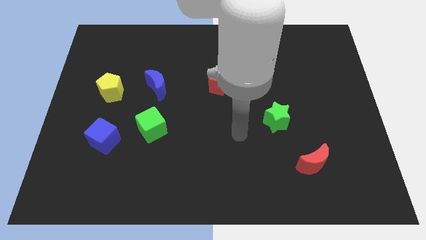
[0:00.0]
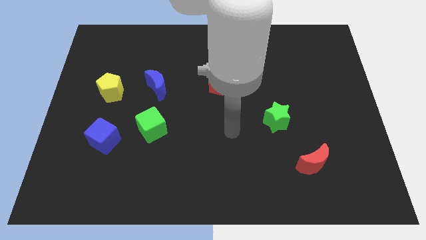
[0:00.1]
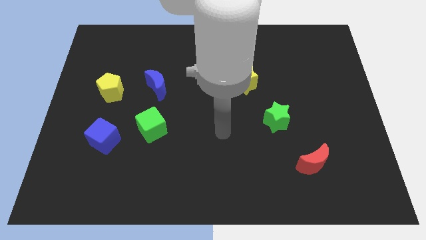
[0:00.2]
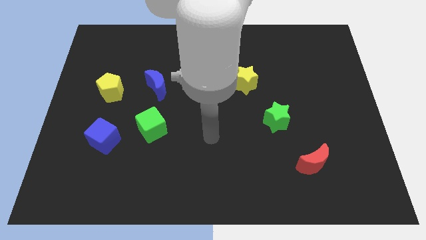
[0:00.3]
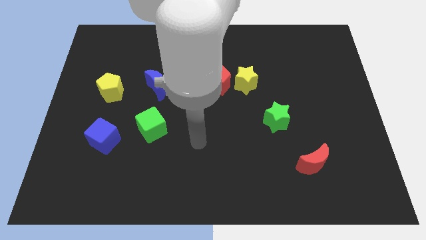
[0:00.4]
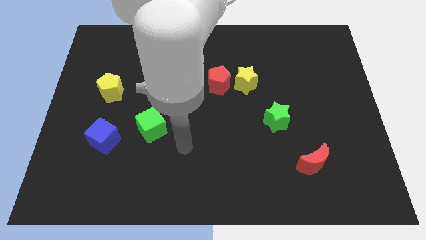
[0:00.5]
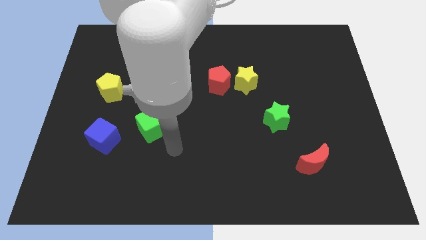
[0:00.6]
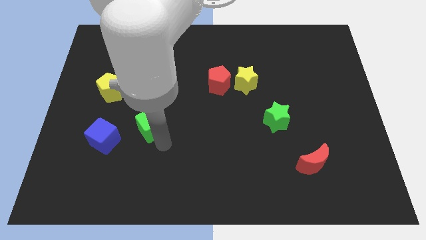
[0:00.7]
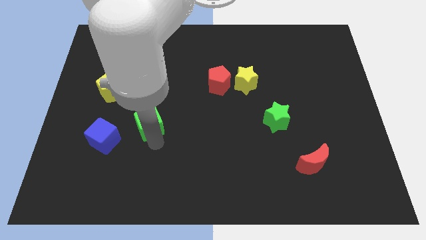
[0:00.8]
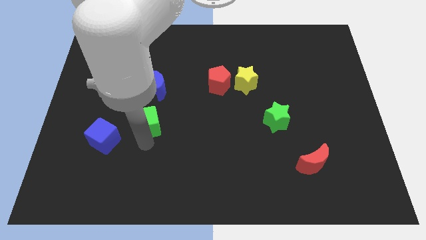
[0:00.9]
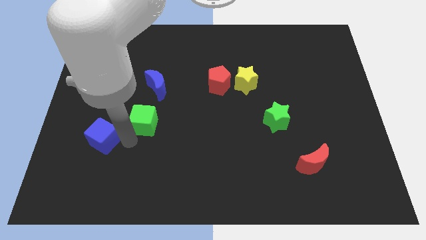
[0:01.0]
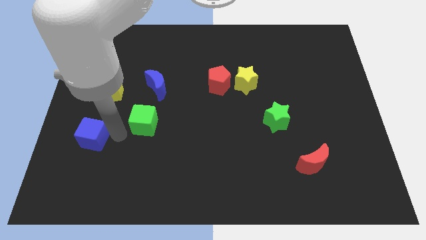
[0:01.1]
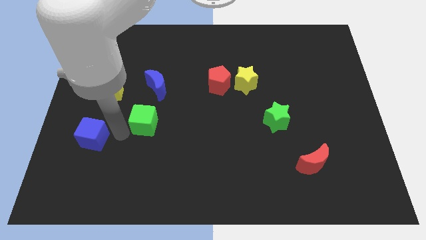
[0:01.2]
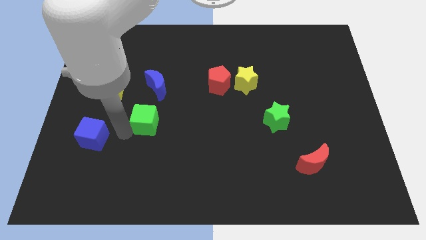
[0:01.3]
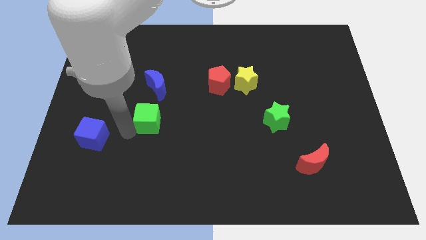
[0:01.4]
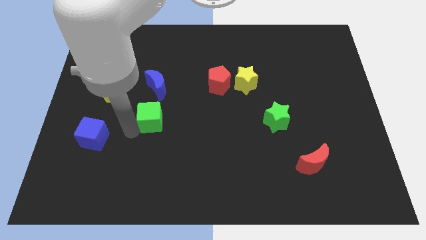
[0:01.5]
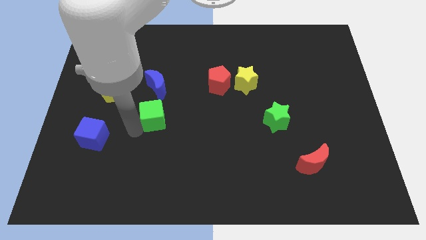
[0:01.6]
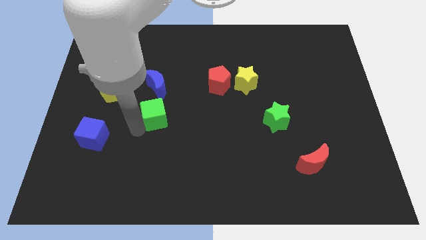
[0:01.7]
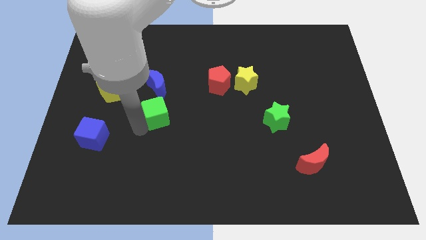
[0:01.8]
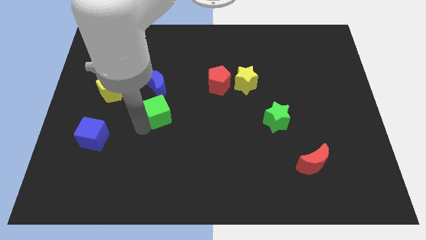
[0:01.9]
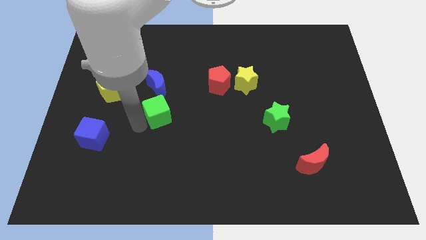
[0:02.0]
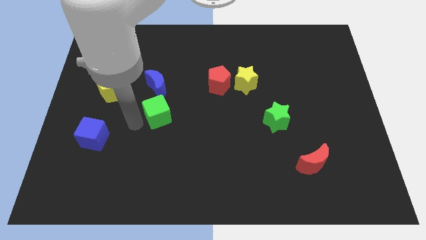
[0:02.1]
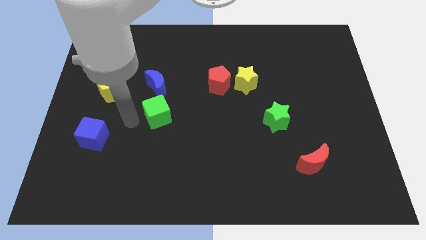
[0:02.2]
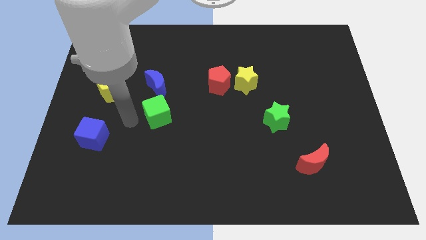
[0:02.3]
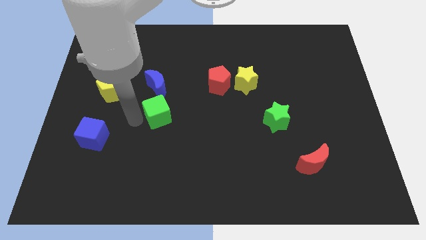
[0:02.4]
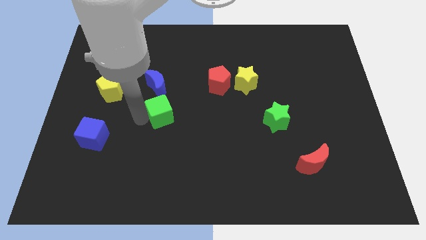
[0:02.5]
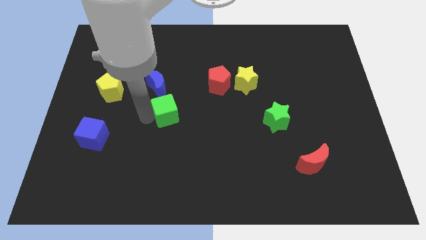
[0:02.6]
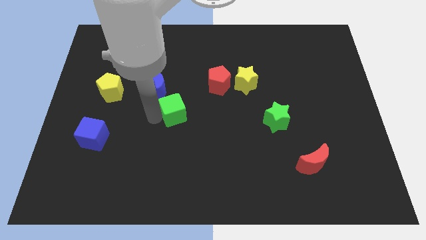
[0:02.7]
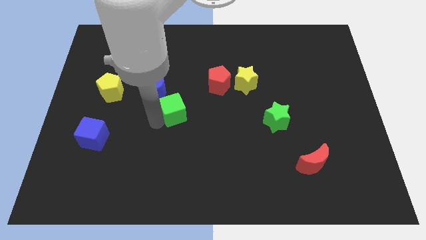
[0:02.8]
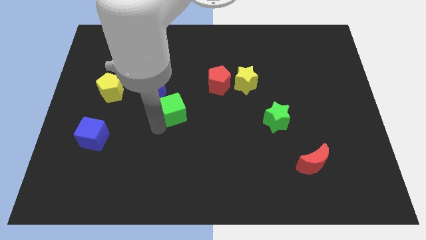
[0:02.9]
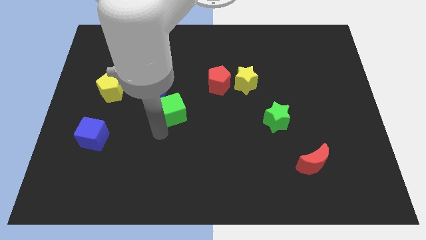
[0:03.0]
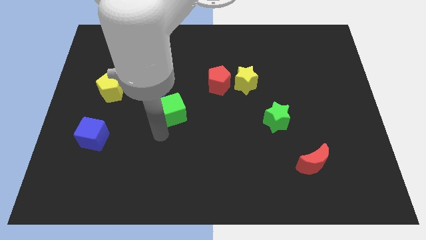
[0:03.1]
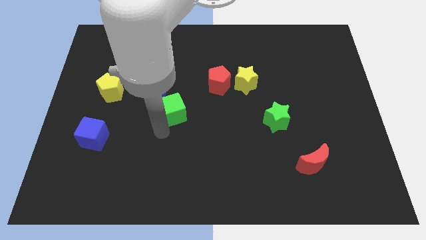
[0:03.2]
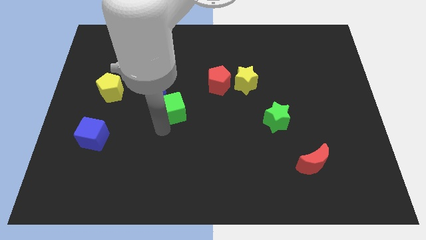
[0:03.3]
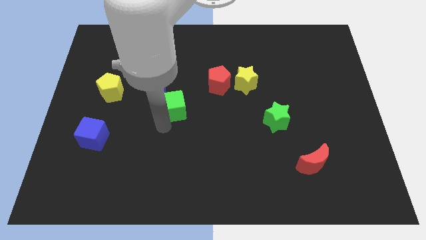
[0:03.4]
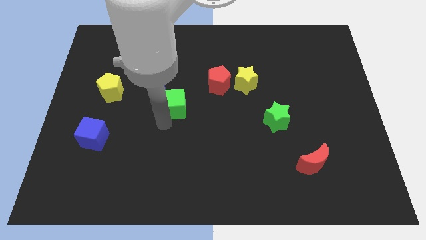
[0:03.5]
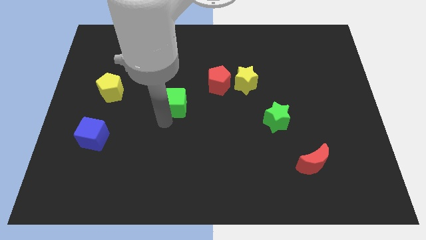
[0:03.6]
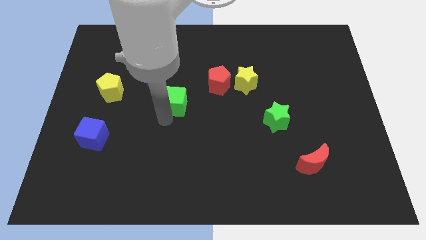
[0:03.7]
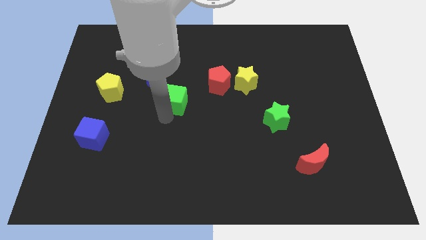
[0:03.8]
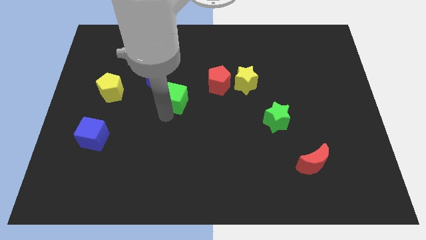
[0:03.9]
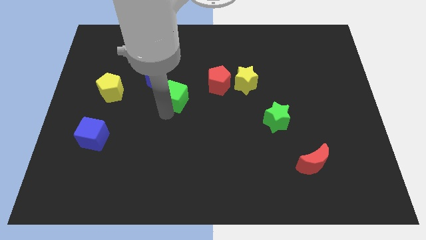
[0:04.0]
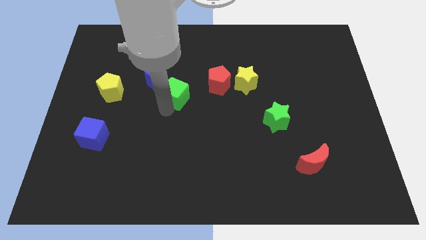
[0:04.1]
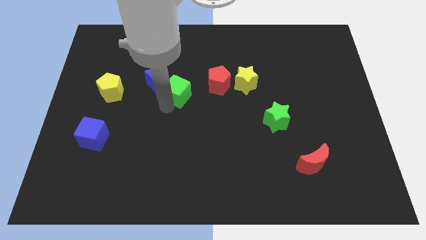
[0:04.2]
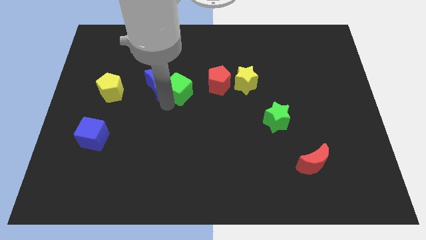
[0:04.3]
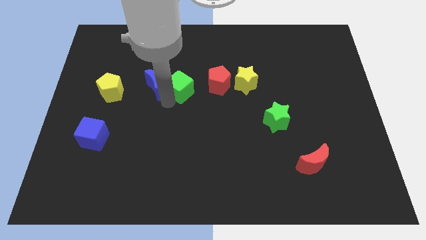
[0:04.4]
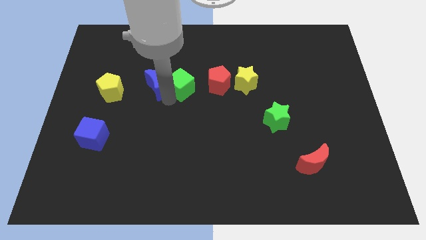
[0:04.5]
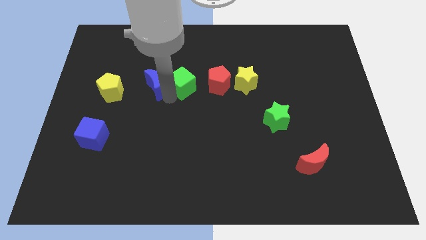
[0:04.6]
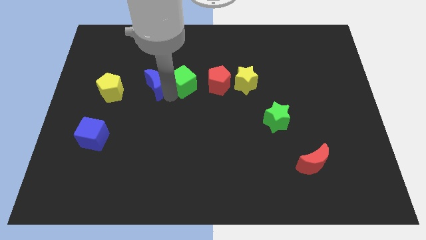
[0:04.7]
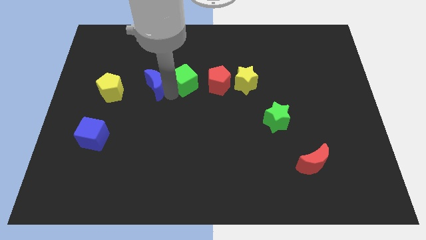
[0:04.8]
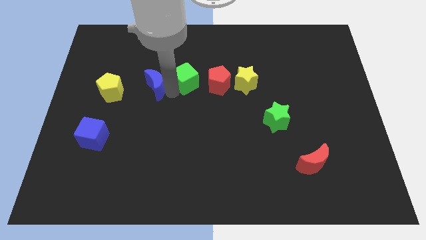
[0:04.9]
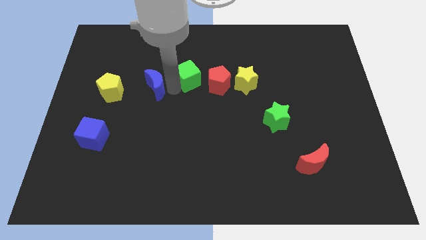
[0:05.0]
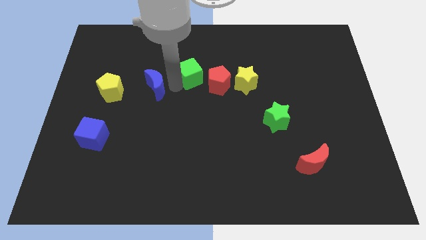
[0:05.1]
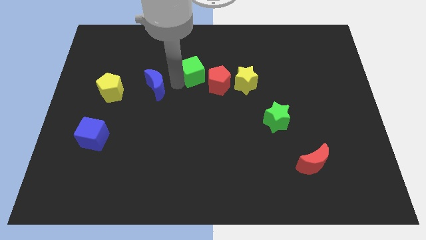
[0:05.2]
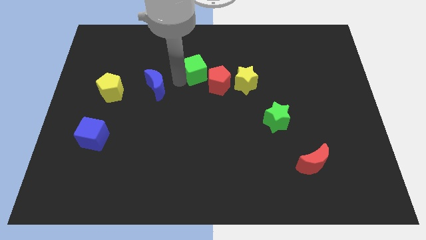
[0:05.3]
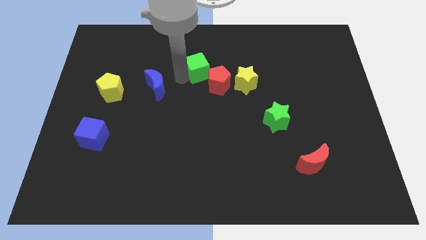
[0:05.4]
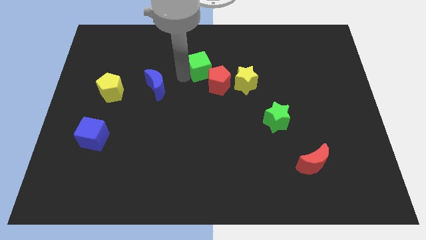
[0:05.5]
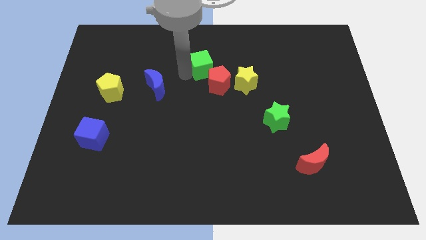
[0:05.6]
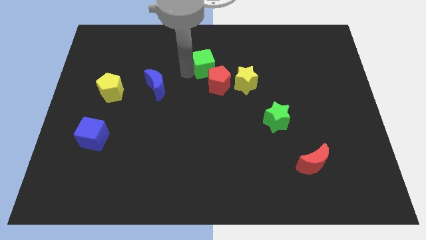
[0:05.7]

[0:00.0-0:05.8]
move the green cube diagonally up and to the right

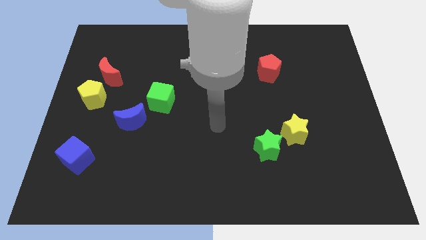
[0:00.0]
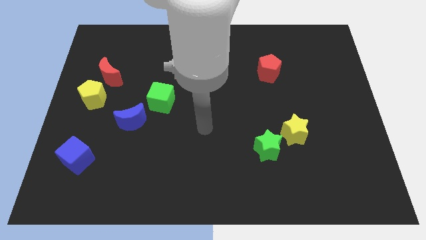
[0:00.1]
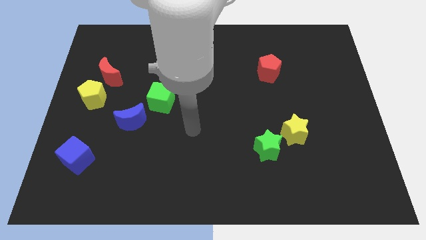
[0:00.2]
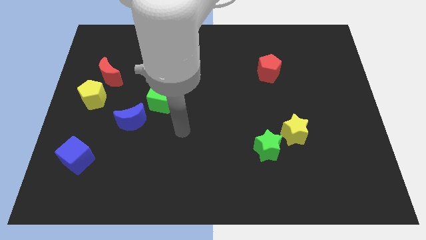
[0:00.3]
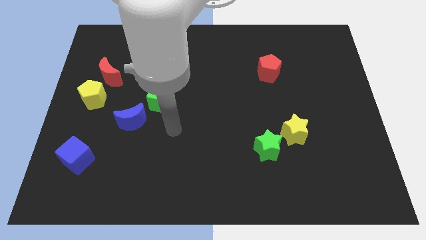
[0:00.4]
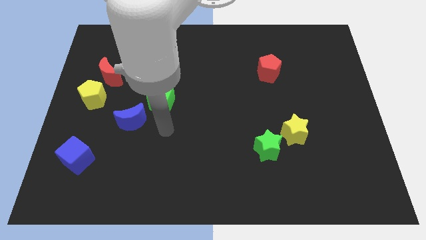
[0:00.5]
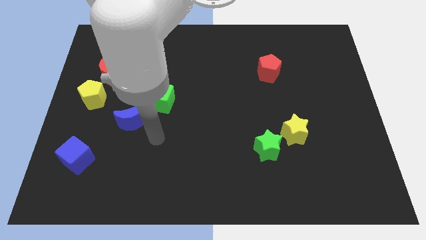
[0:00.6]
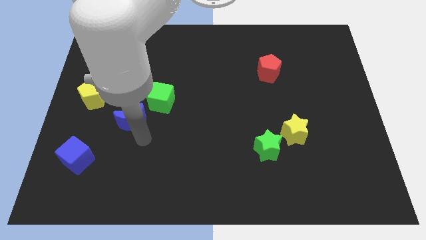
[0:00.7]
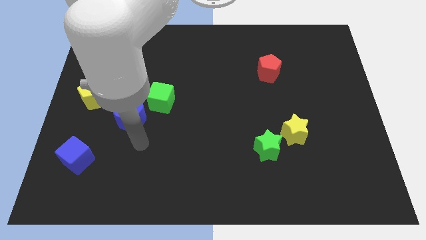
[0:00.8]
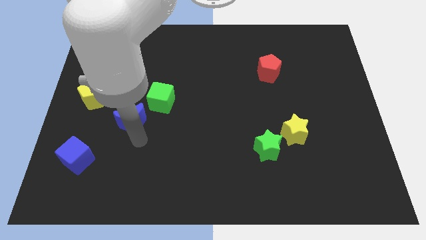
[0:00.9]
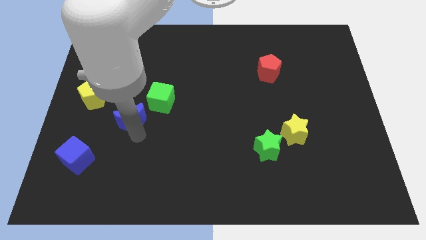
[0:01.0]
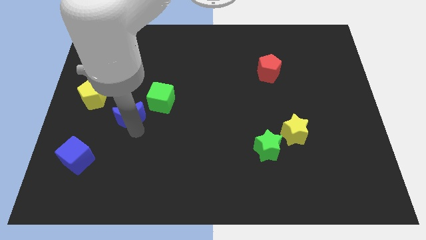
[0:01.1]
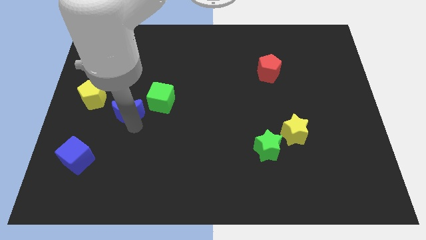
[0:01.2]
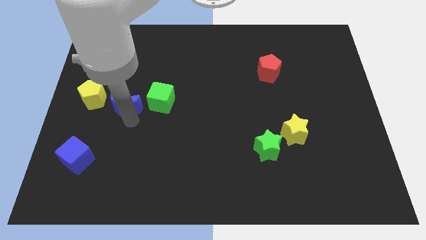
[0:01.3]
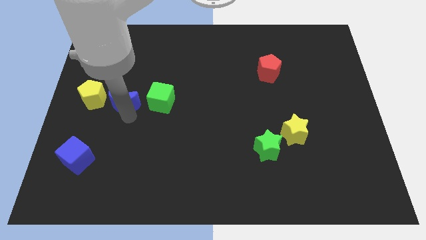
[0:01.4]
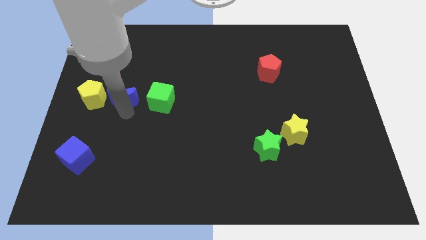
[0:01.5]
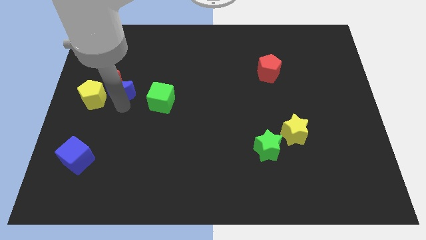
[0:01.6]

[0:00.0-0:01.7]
slide the blue moon up a bit

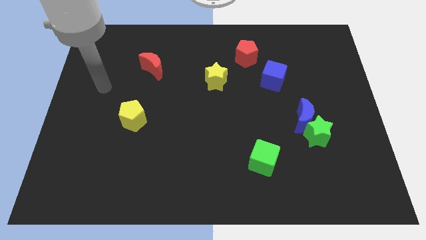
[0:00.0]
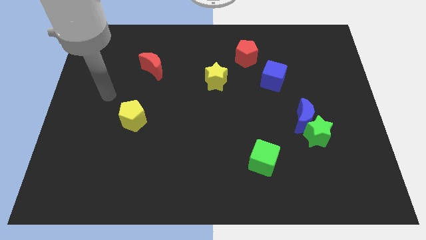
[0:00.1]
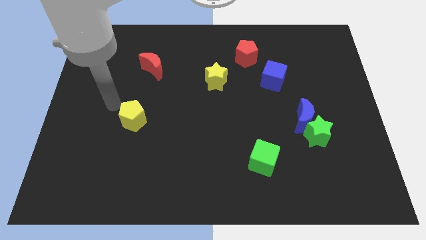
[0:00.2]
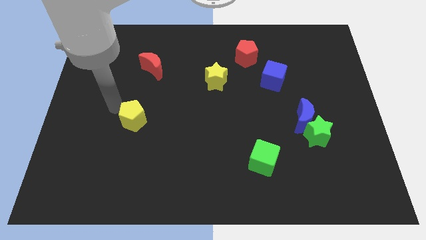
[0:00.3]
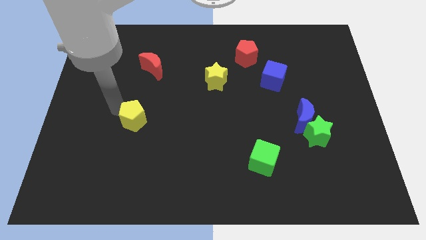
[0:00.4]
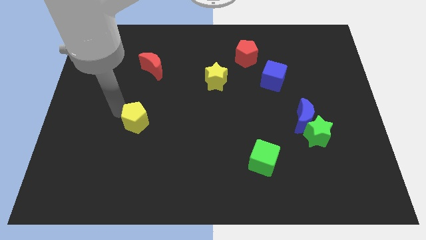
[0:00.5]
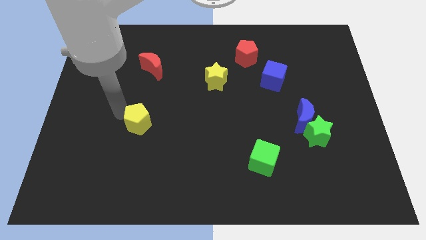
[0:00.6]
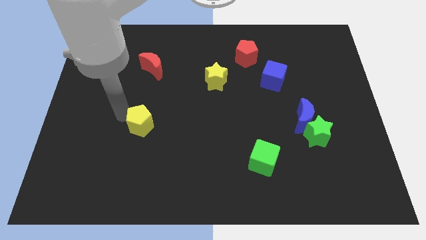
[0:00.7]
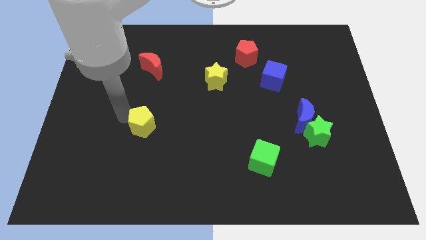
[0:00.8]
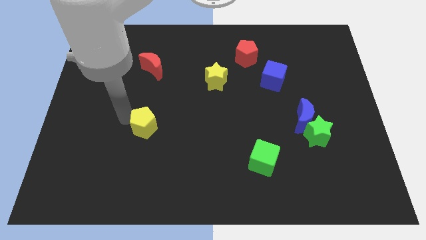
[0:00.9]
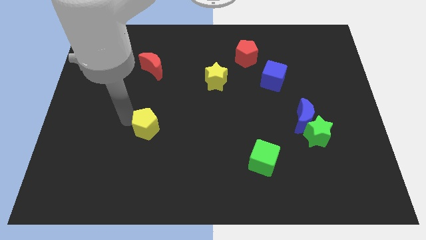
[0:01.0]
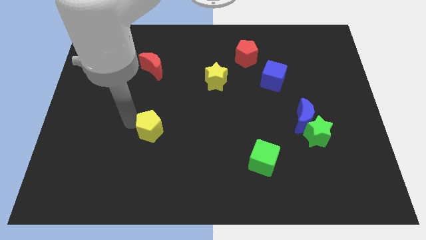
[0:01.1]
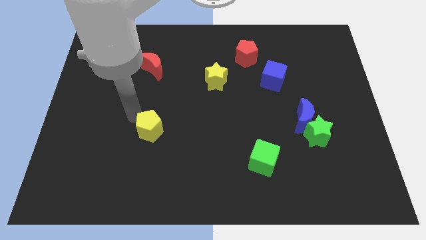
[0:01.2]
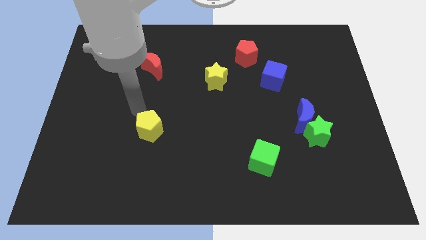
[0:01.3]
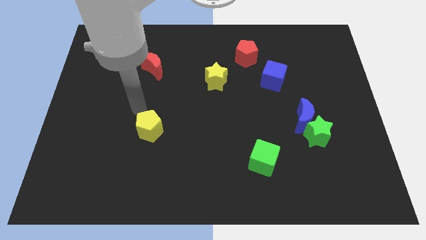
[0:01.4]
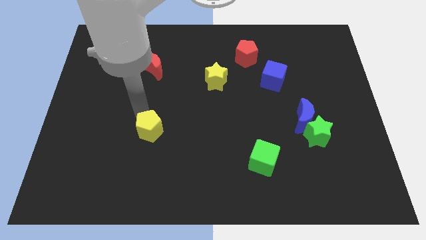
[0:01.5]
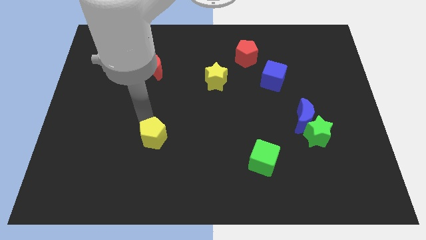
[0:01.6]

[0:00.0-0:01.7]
slightly move the yellow pentagon downwards and right
